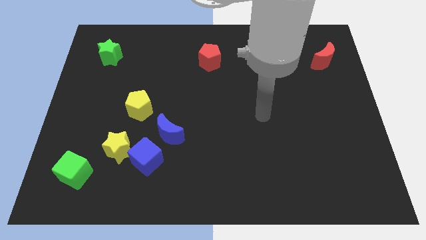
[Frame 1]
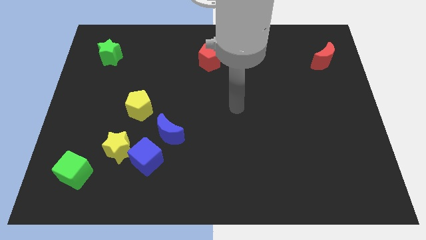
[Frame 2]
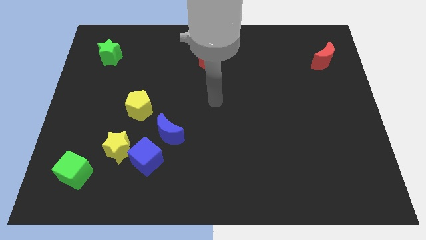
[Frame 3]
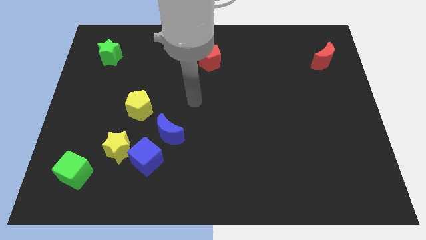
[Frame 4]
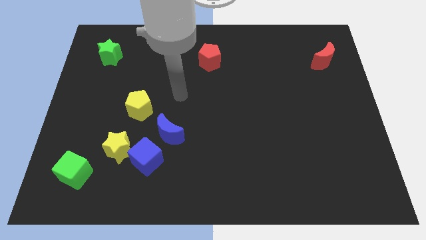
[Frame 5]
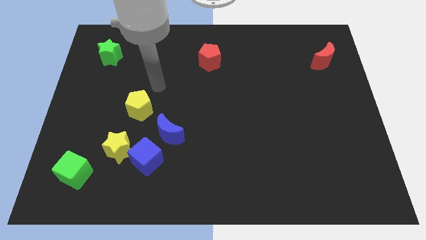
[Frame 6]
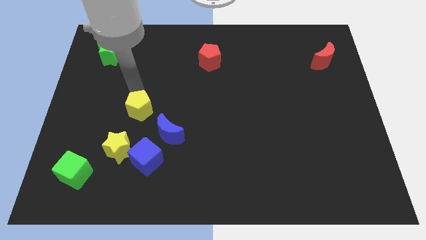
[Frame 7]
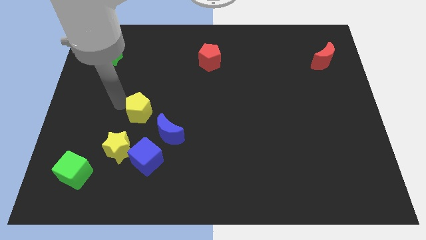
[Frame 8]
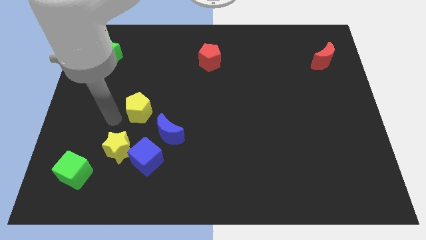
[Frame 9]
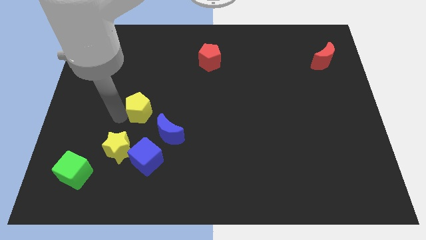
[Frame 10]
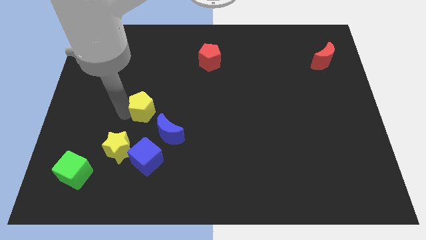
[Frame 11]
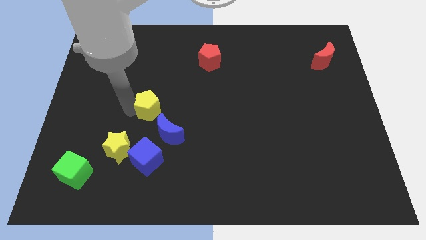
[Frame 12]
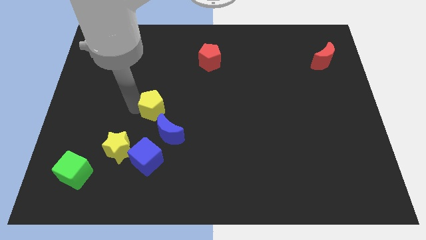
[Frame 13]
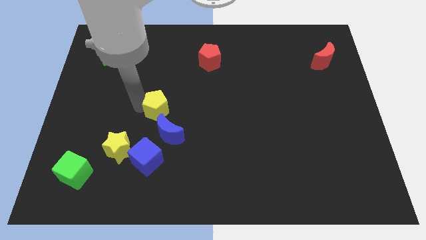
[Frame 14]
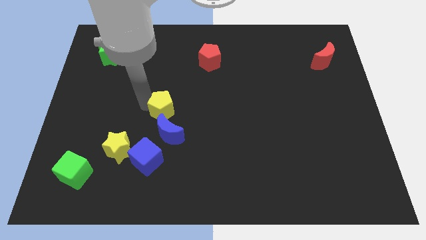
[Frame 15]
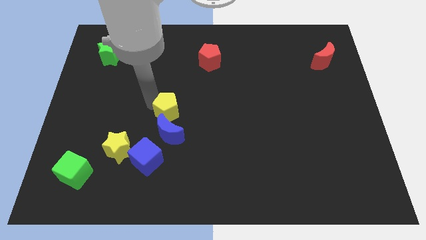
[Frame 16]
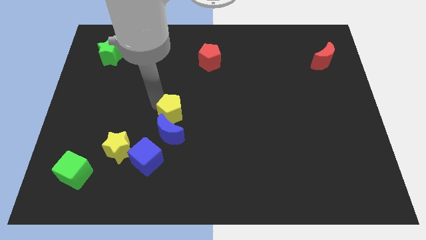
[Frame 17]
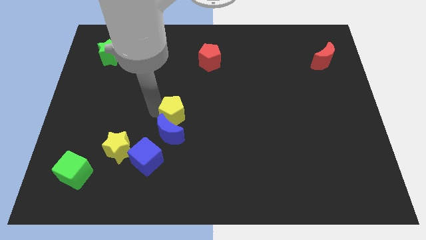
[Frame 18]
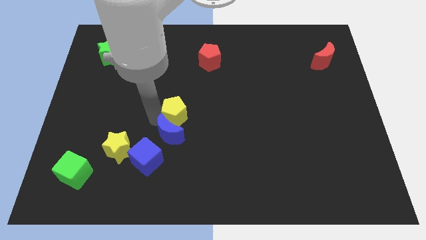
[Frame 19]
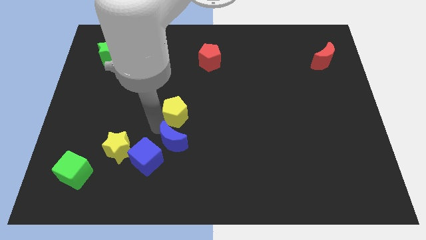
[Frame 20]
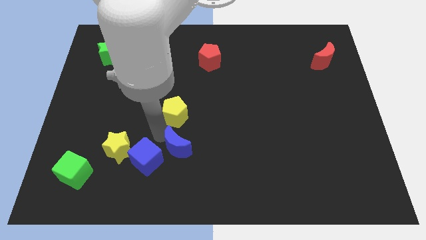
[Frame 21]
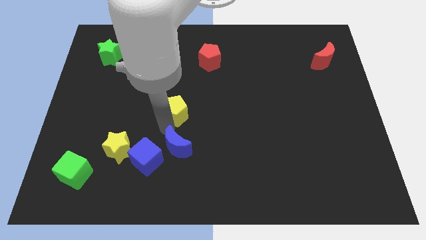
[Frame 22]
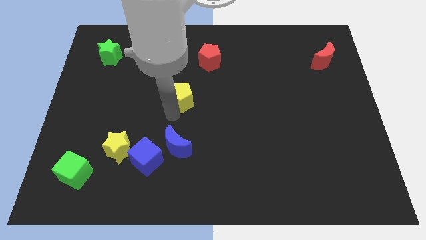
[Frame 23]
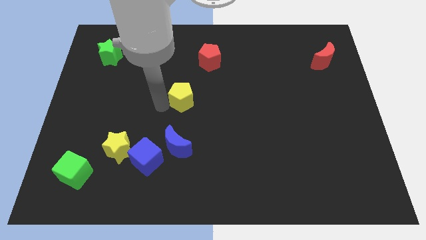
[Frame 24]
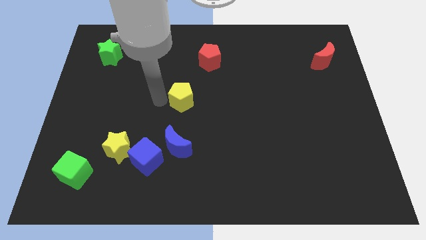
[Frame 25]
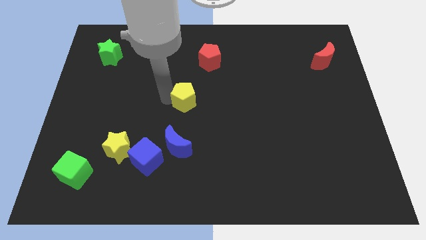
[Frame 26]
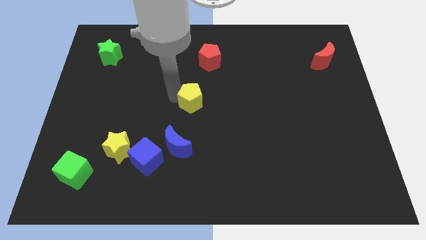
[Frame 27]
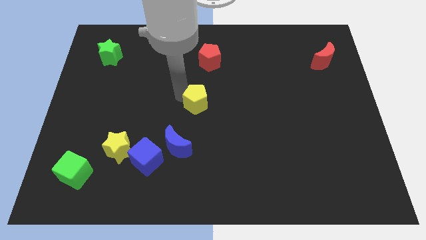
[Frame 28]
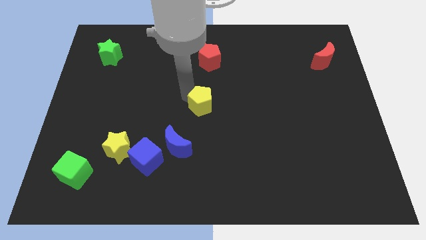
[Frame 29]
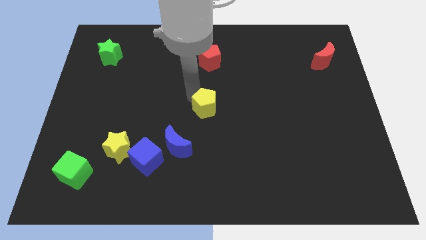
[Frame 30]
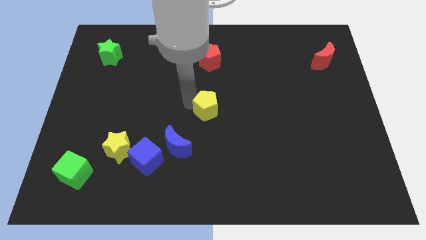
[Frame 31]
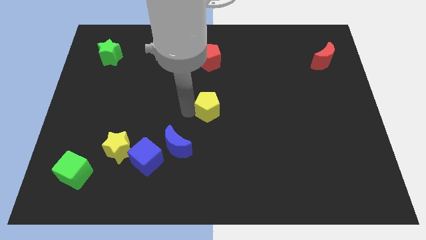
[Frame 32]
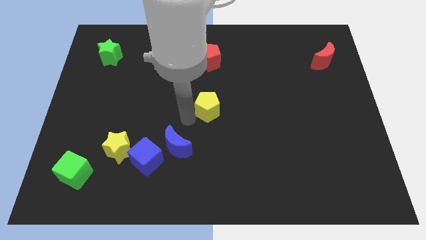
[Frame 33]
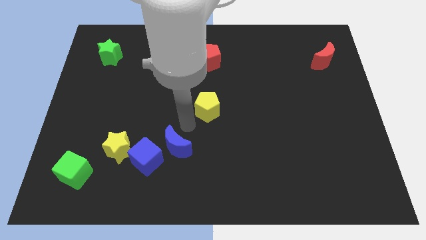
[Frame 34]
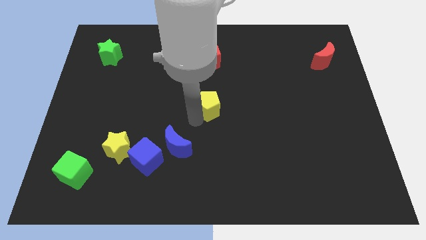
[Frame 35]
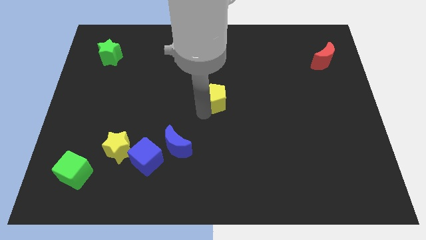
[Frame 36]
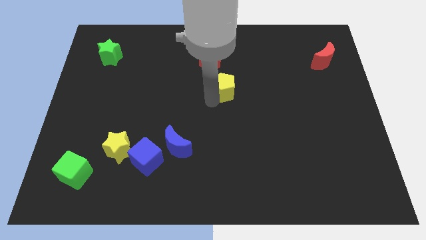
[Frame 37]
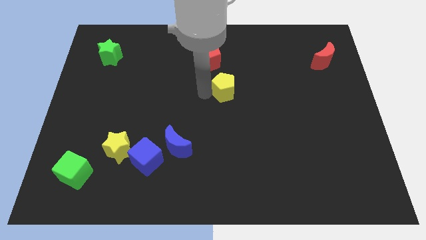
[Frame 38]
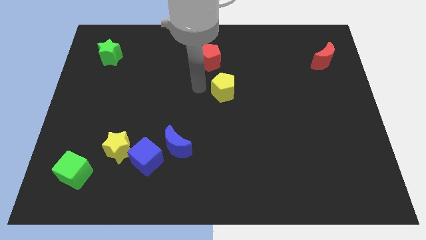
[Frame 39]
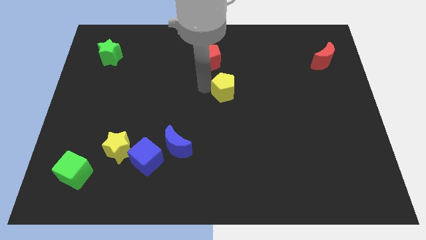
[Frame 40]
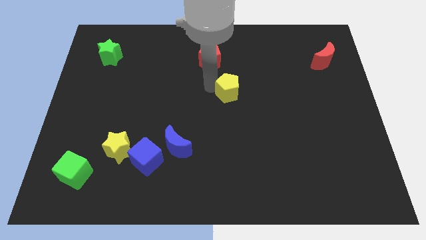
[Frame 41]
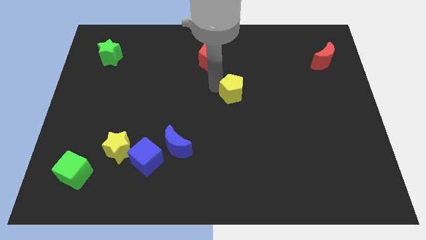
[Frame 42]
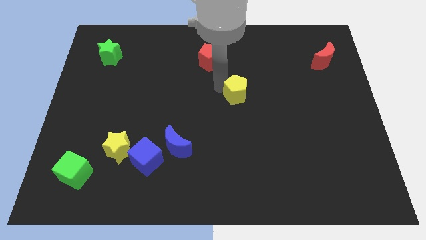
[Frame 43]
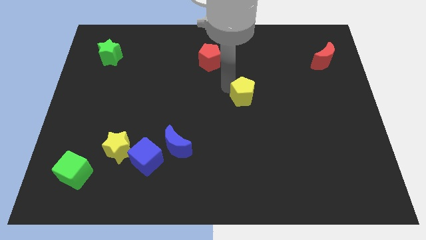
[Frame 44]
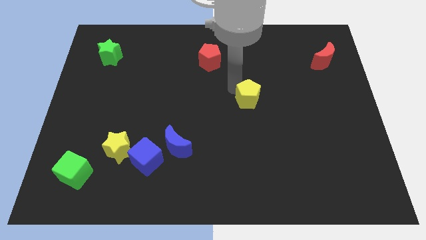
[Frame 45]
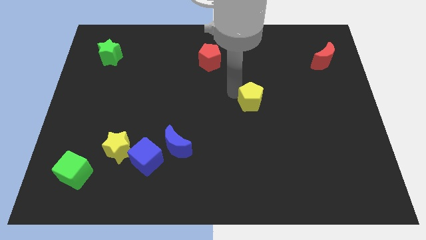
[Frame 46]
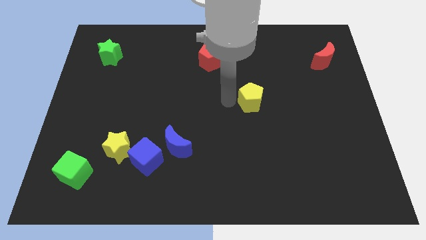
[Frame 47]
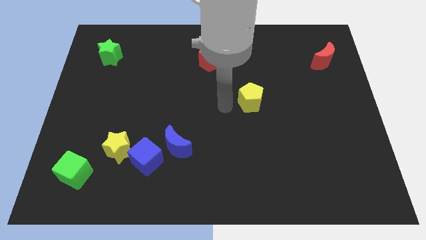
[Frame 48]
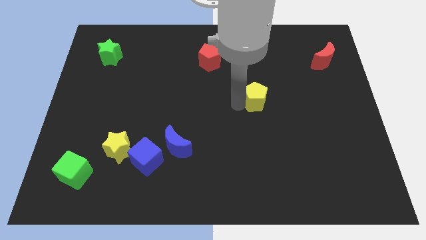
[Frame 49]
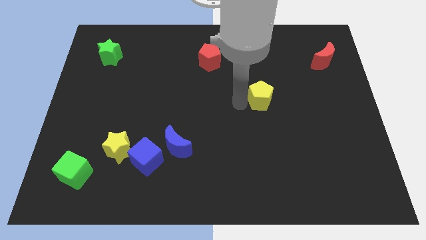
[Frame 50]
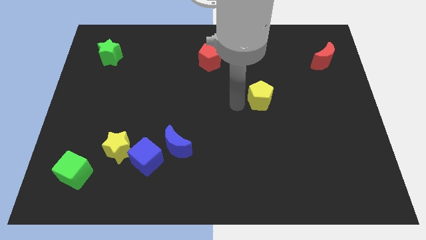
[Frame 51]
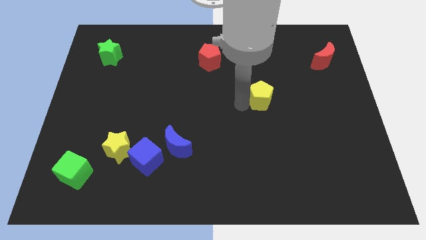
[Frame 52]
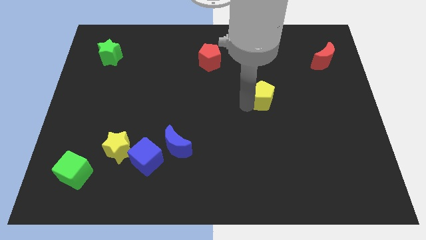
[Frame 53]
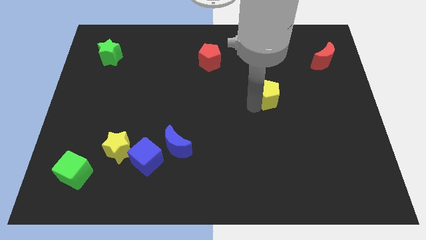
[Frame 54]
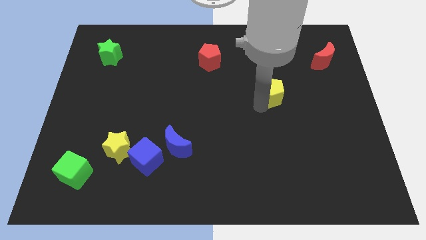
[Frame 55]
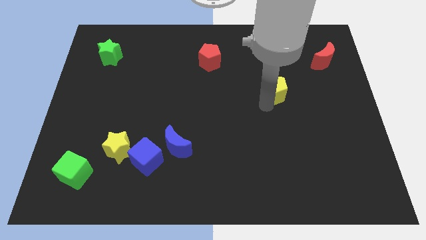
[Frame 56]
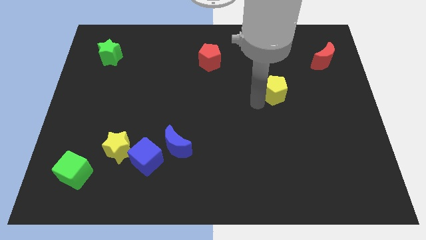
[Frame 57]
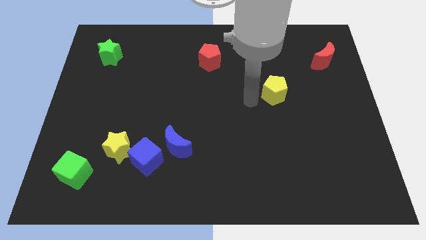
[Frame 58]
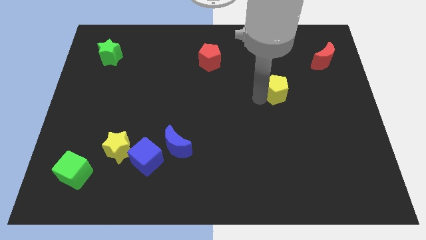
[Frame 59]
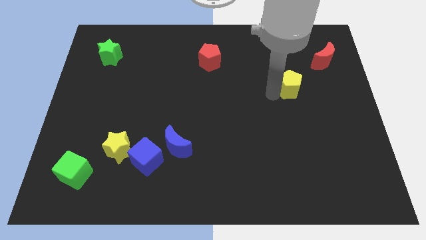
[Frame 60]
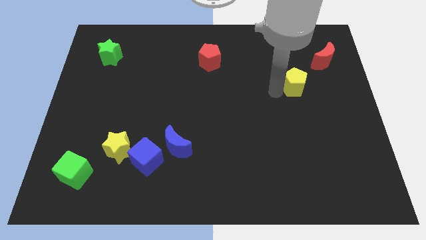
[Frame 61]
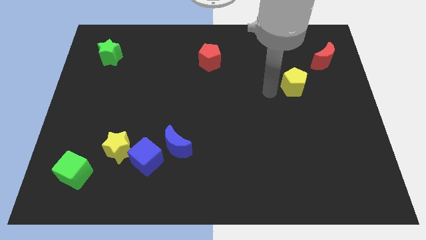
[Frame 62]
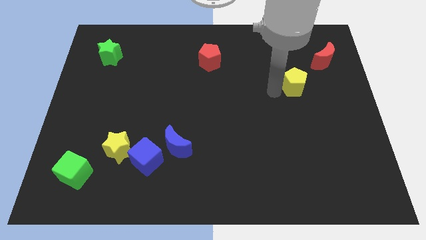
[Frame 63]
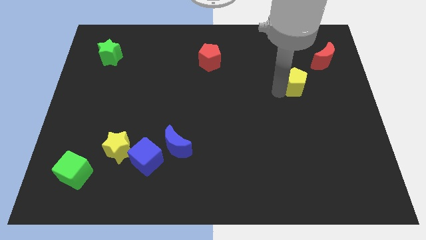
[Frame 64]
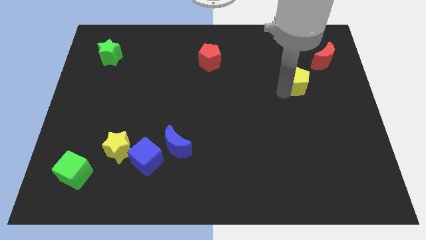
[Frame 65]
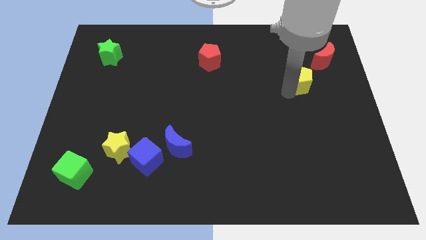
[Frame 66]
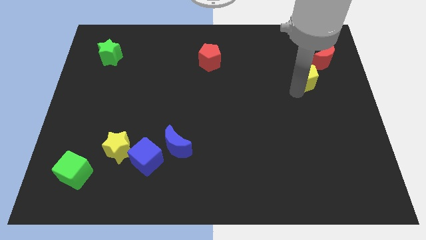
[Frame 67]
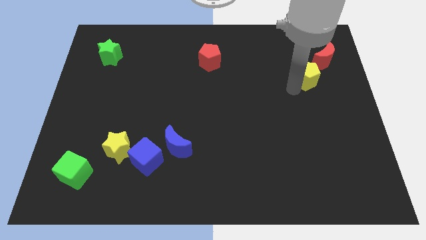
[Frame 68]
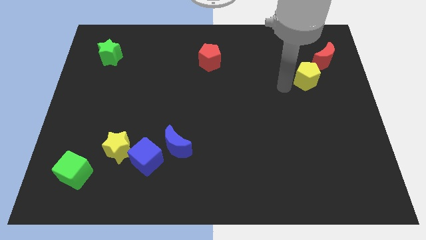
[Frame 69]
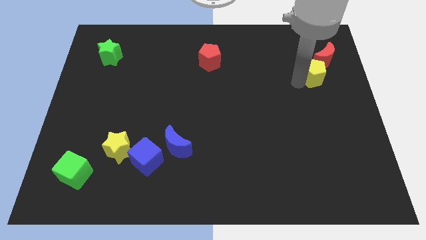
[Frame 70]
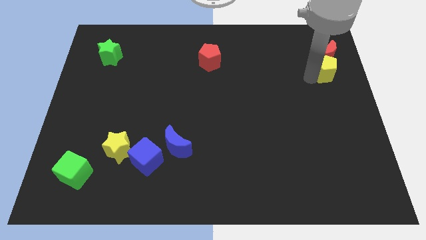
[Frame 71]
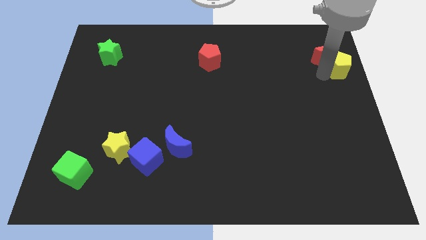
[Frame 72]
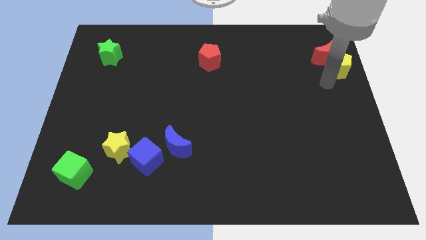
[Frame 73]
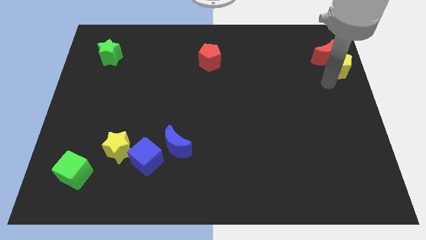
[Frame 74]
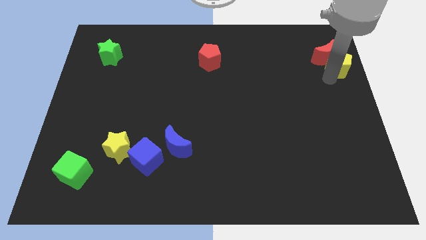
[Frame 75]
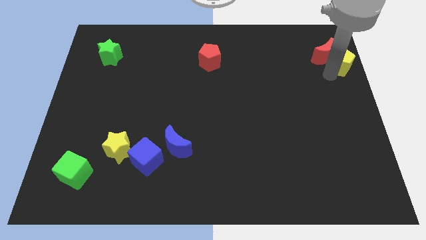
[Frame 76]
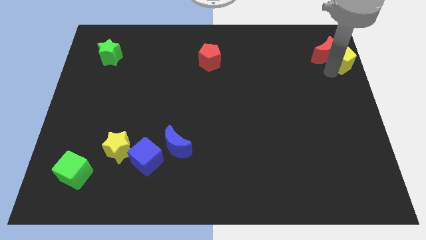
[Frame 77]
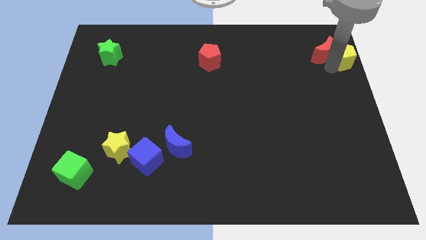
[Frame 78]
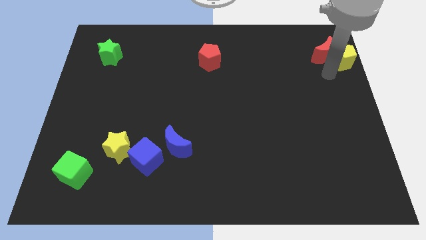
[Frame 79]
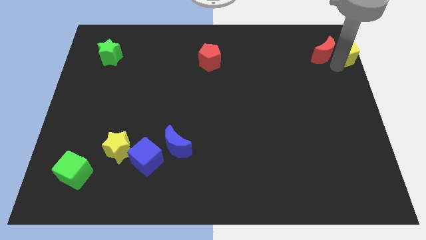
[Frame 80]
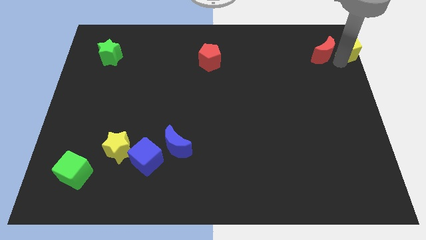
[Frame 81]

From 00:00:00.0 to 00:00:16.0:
push the yellow pentagon to the top right corner
